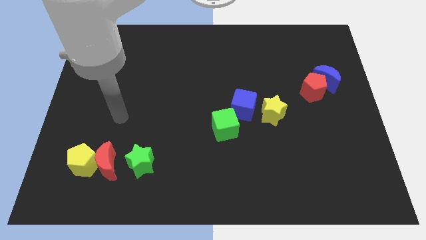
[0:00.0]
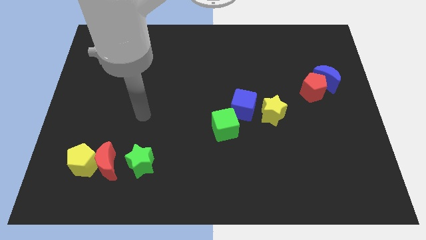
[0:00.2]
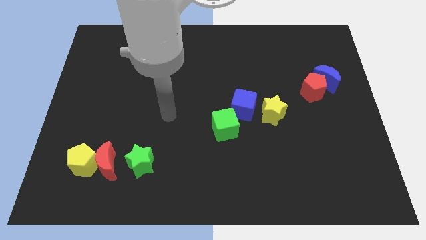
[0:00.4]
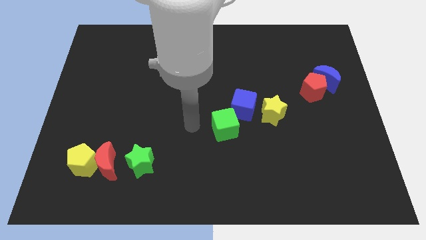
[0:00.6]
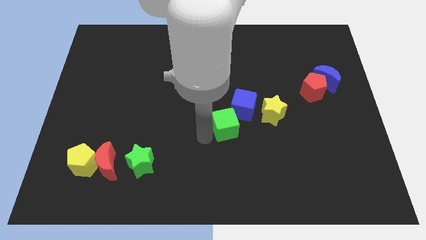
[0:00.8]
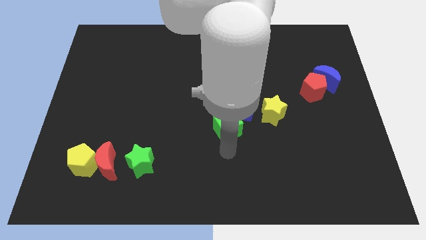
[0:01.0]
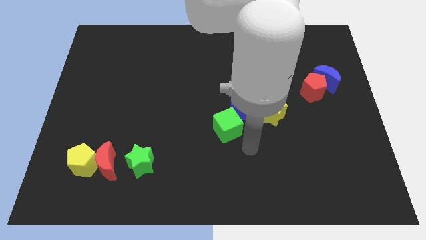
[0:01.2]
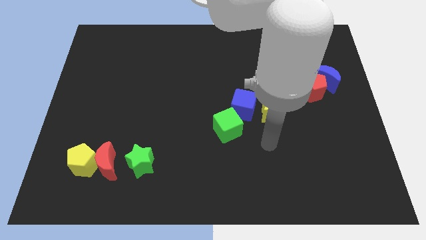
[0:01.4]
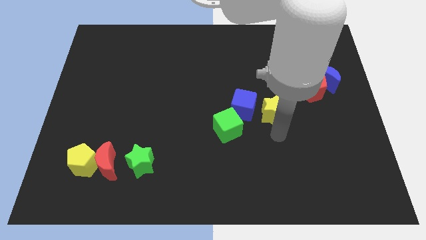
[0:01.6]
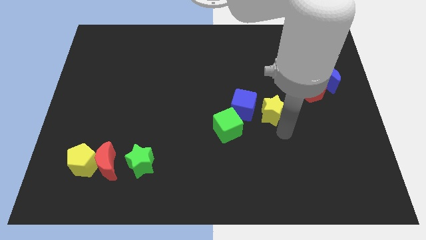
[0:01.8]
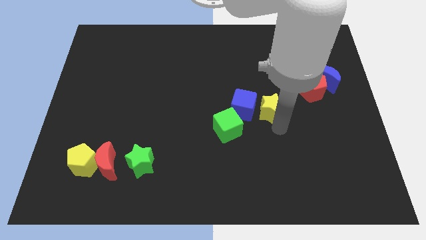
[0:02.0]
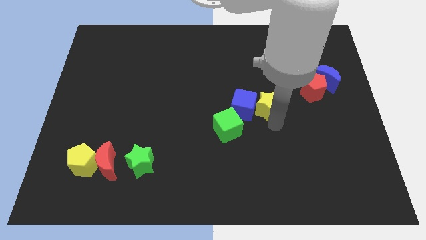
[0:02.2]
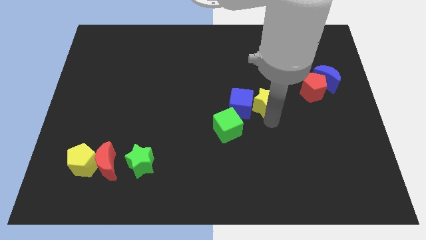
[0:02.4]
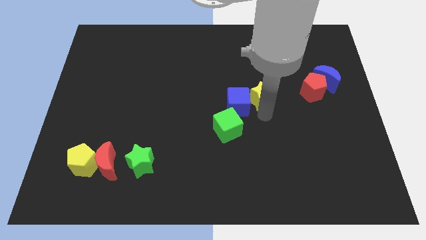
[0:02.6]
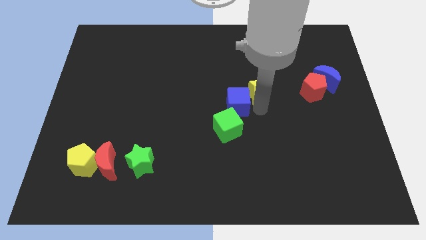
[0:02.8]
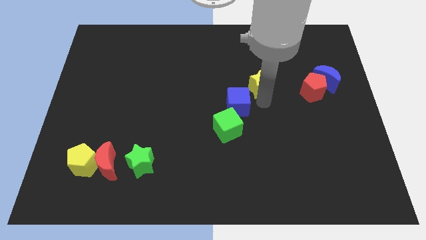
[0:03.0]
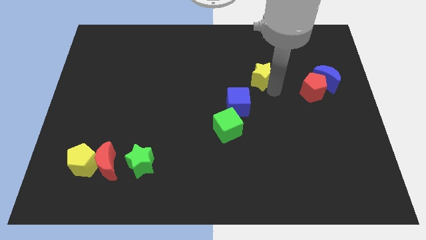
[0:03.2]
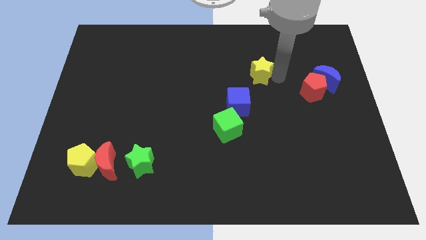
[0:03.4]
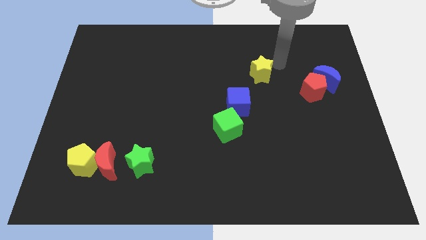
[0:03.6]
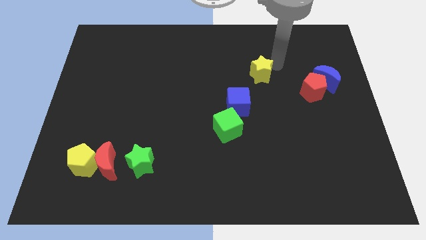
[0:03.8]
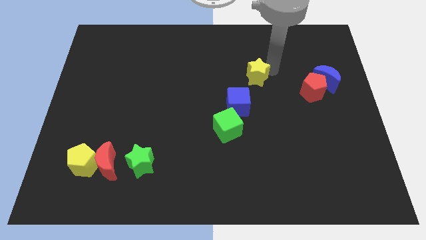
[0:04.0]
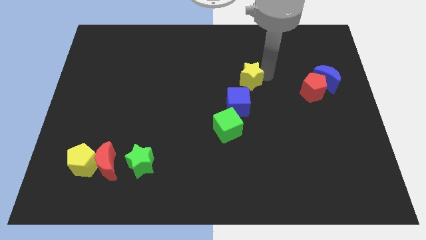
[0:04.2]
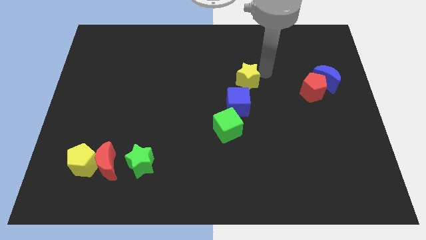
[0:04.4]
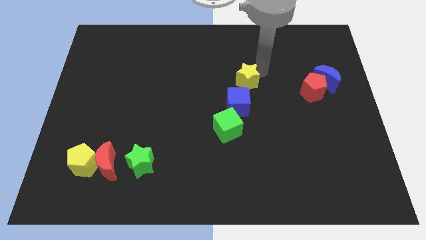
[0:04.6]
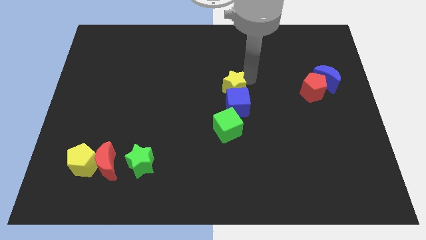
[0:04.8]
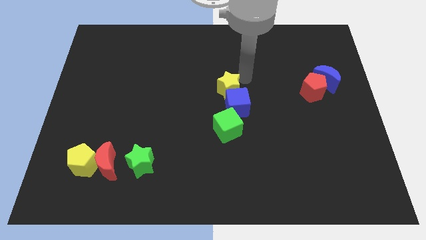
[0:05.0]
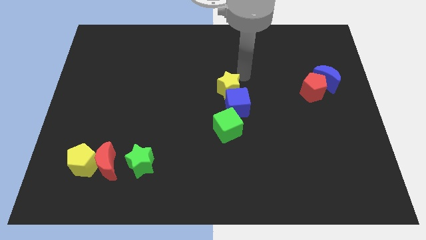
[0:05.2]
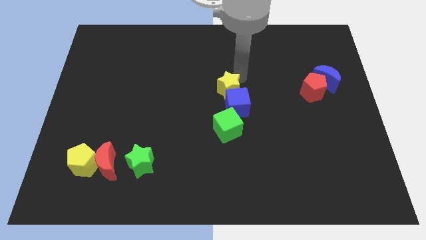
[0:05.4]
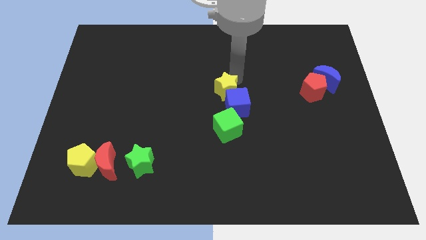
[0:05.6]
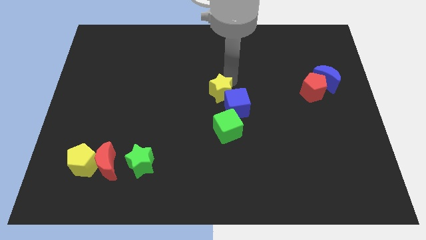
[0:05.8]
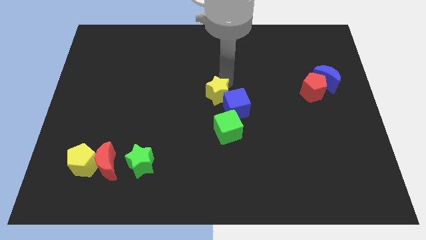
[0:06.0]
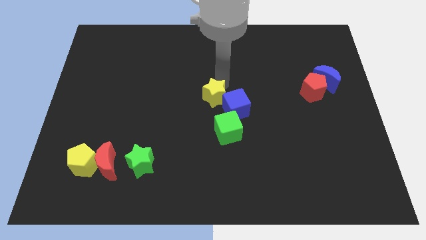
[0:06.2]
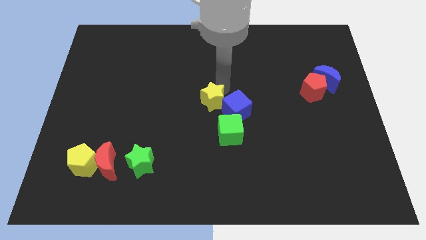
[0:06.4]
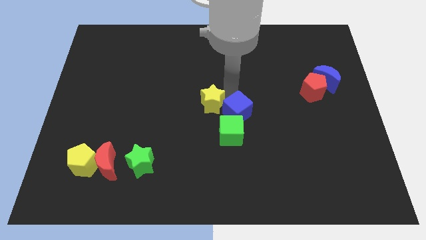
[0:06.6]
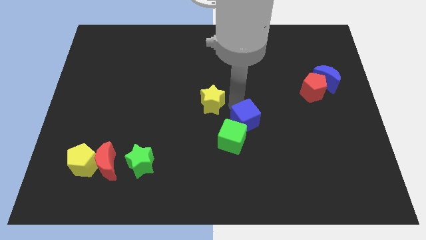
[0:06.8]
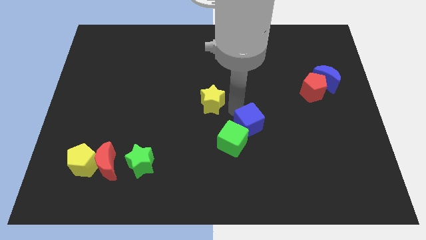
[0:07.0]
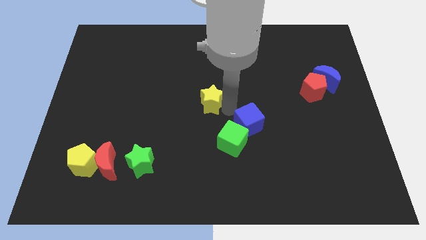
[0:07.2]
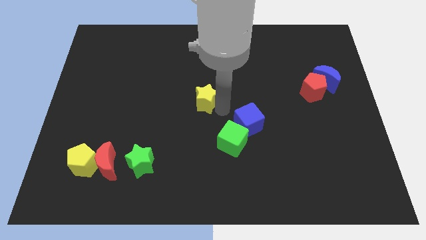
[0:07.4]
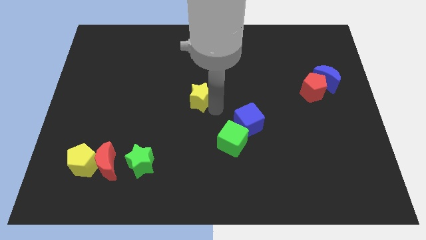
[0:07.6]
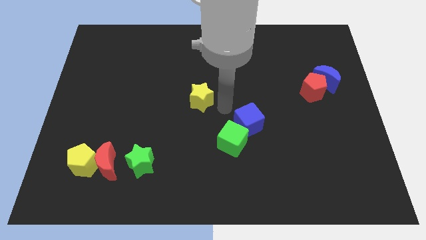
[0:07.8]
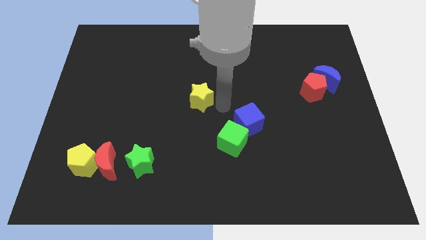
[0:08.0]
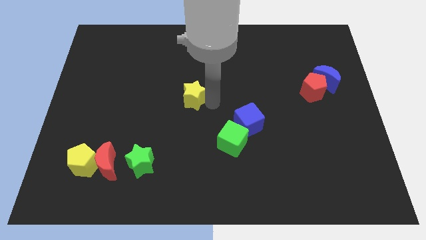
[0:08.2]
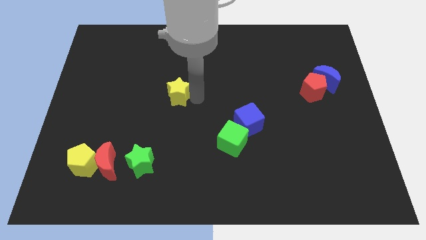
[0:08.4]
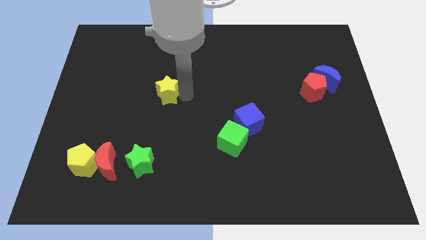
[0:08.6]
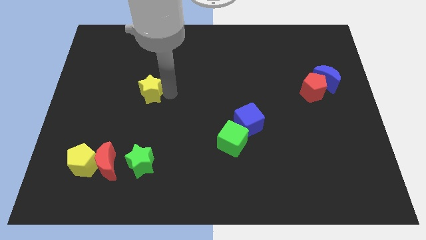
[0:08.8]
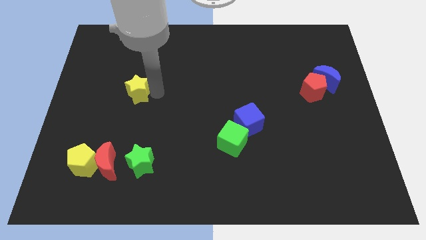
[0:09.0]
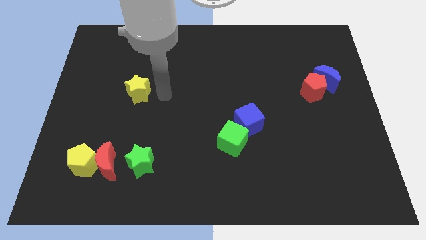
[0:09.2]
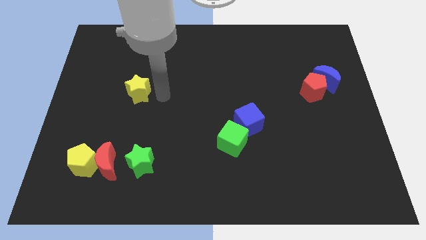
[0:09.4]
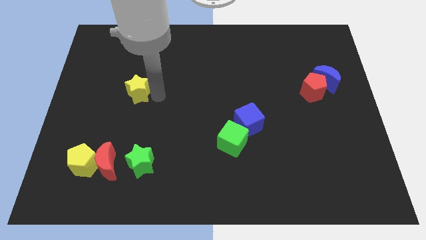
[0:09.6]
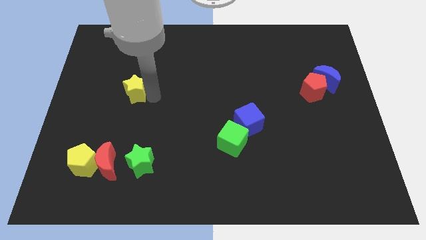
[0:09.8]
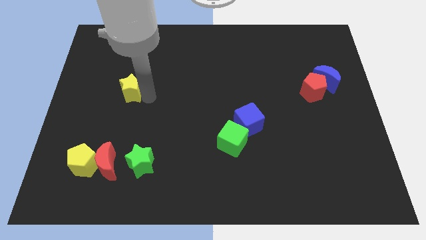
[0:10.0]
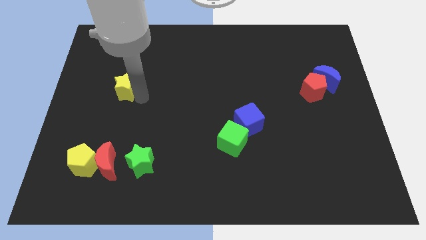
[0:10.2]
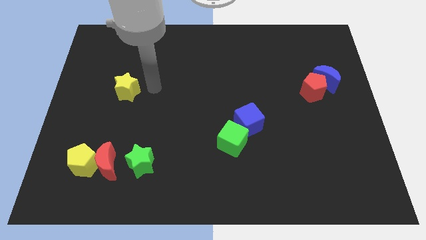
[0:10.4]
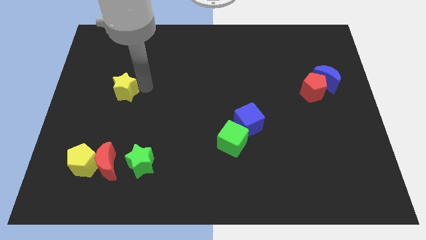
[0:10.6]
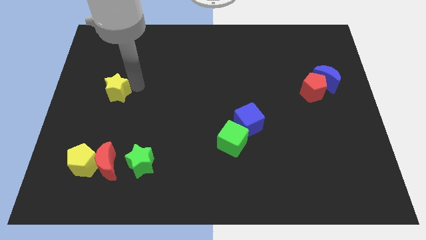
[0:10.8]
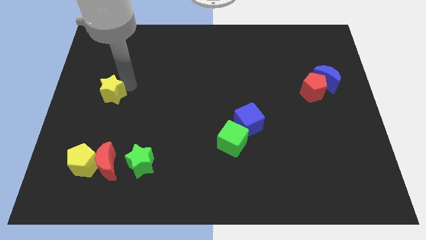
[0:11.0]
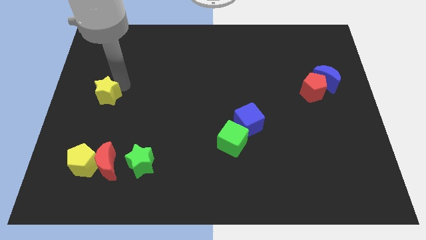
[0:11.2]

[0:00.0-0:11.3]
move the yellow star to the left side

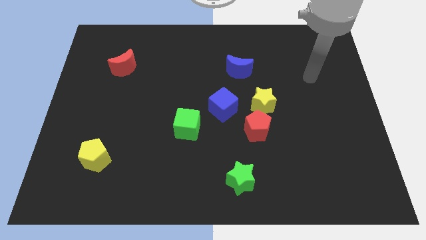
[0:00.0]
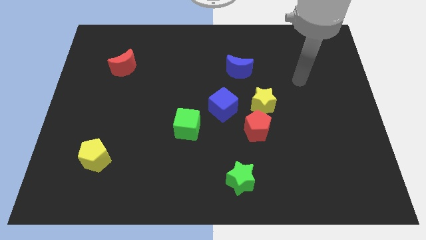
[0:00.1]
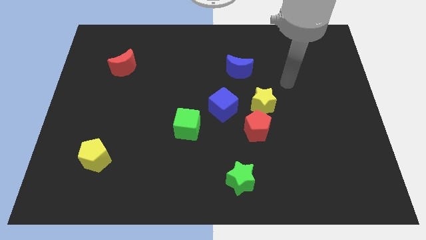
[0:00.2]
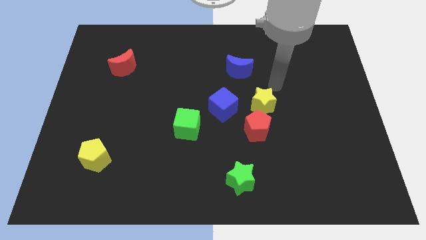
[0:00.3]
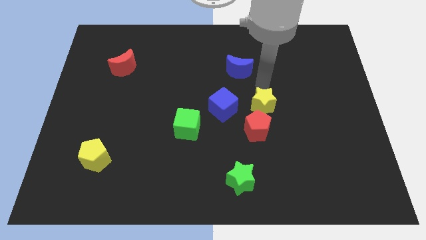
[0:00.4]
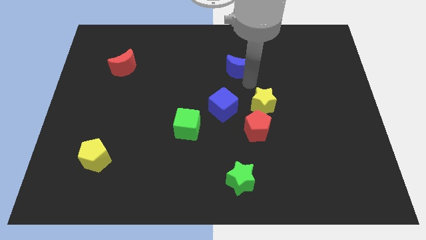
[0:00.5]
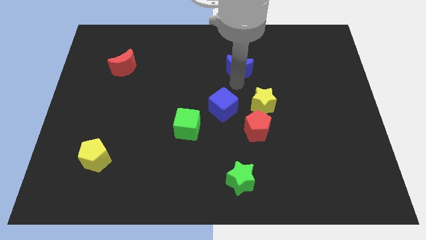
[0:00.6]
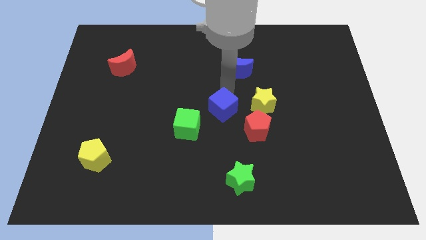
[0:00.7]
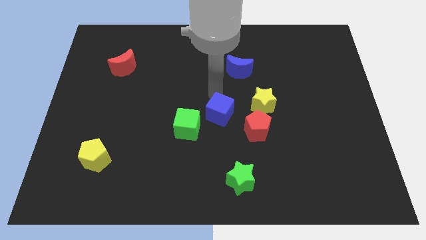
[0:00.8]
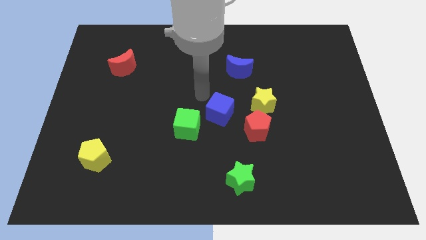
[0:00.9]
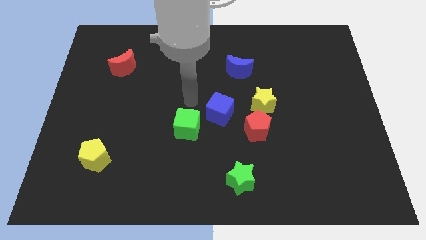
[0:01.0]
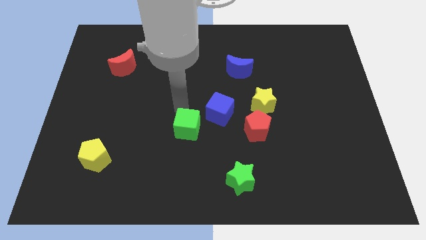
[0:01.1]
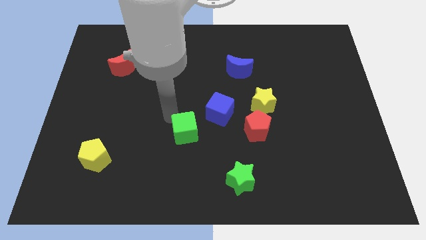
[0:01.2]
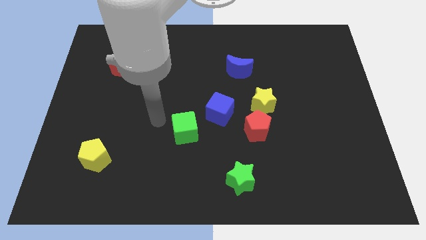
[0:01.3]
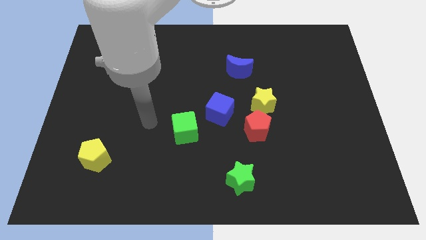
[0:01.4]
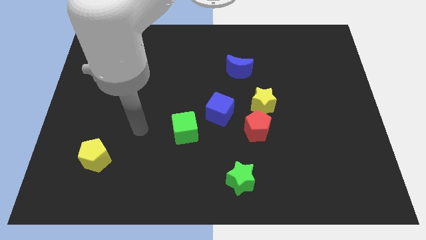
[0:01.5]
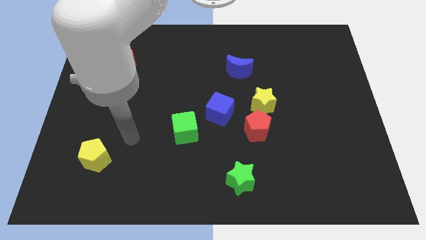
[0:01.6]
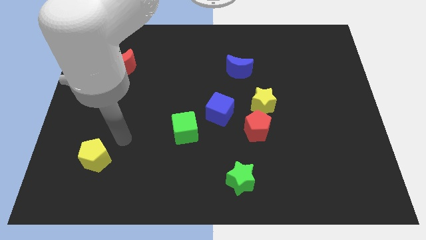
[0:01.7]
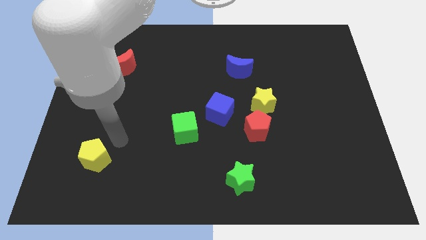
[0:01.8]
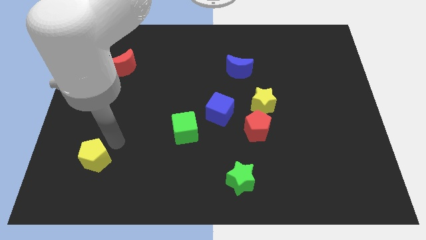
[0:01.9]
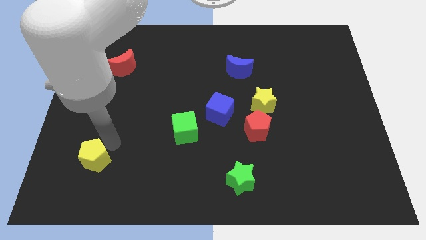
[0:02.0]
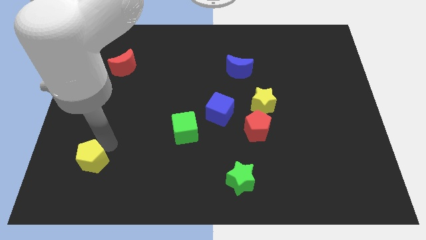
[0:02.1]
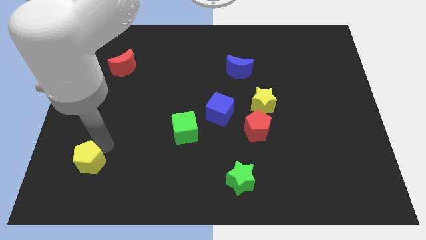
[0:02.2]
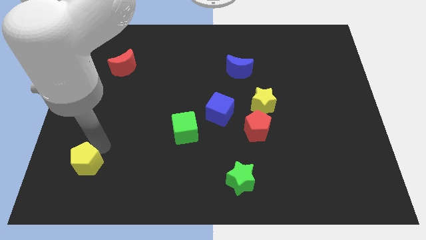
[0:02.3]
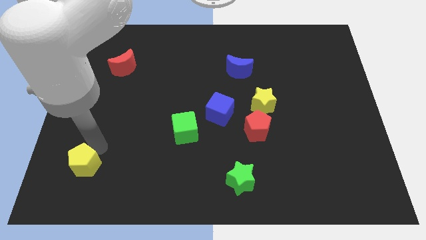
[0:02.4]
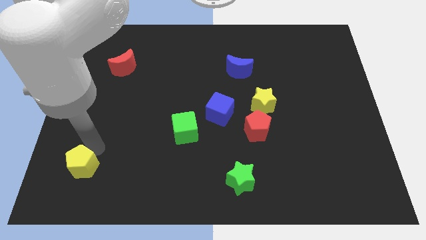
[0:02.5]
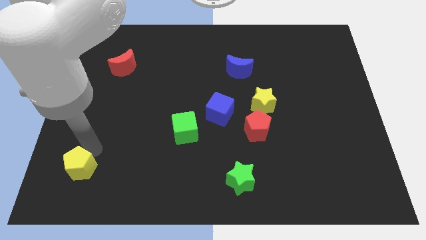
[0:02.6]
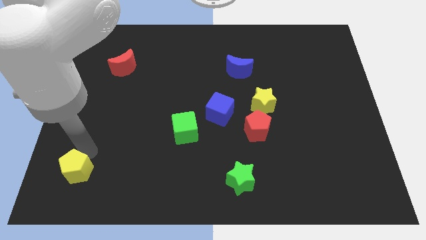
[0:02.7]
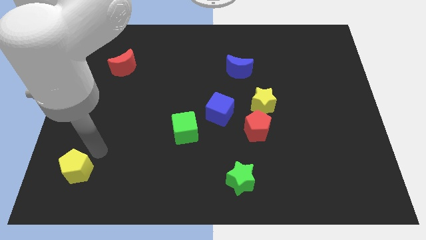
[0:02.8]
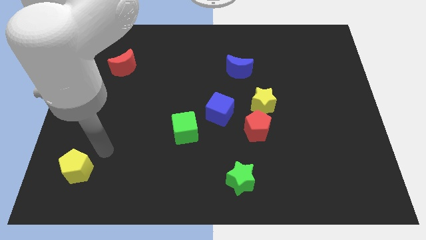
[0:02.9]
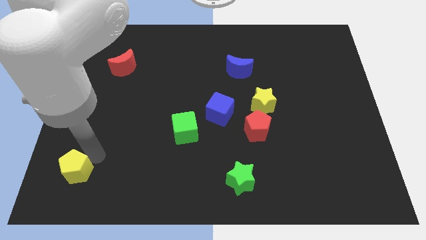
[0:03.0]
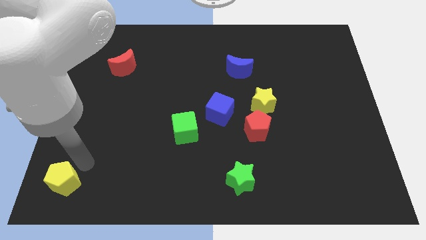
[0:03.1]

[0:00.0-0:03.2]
push the yellow pentagon to the bottom left
